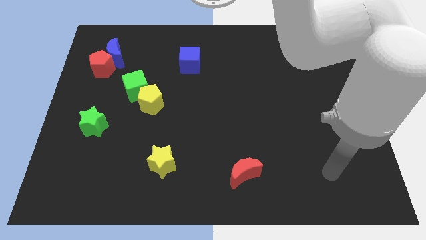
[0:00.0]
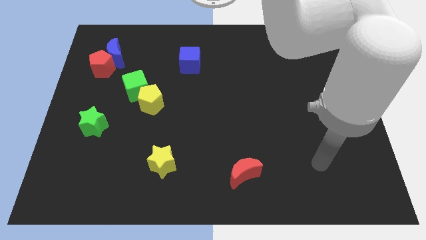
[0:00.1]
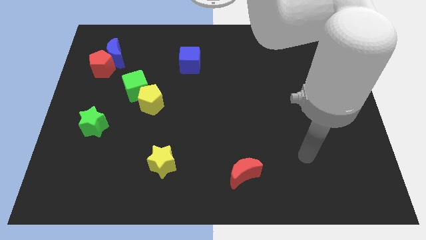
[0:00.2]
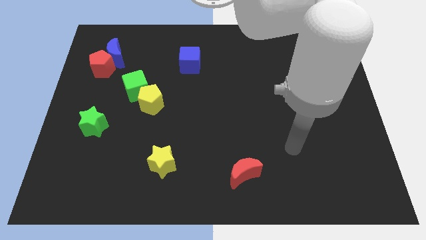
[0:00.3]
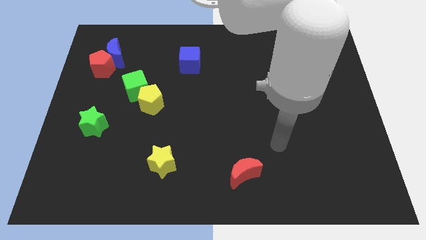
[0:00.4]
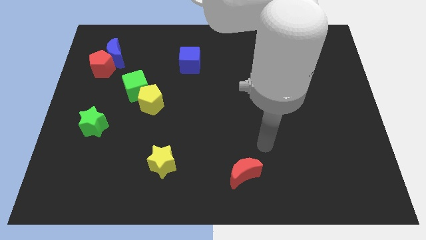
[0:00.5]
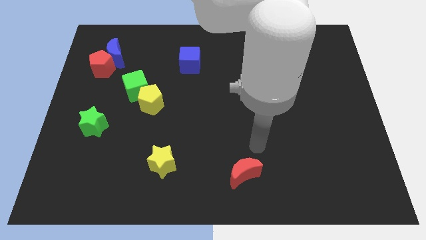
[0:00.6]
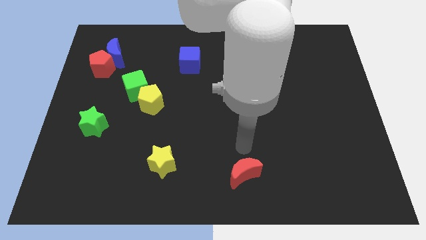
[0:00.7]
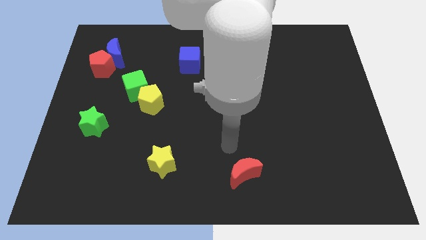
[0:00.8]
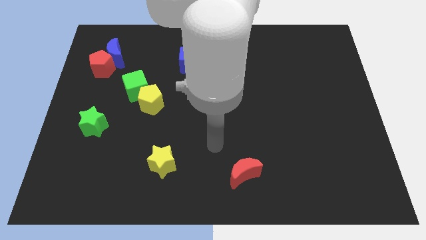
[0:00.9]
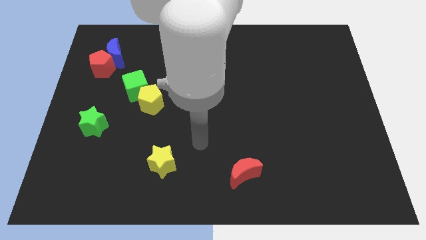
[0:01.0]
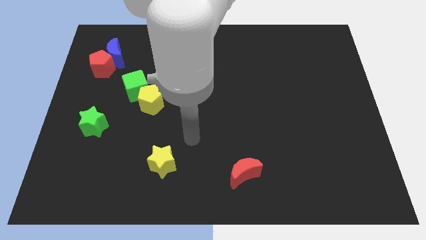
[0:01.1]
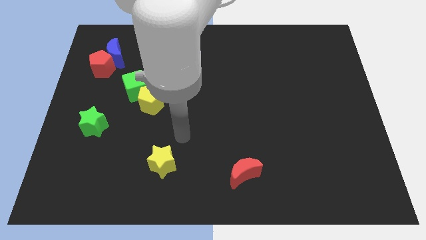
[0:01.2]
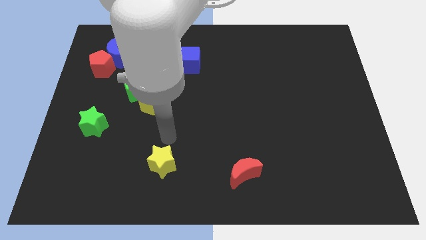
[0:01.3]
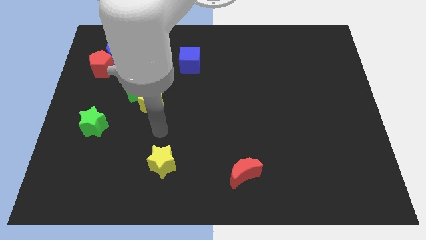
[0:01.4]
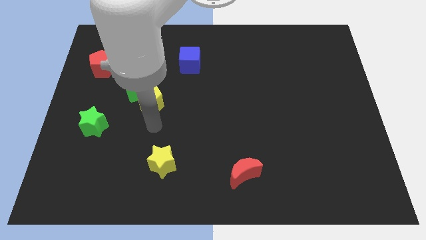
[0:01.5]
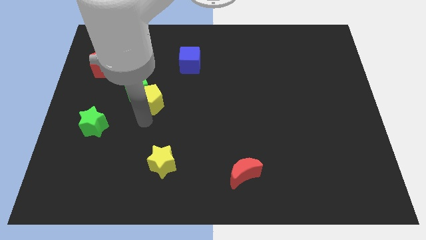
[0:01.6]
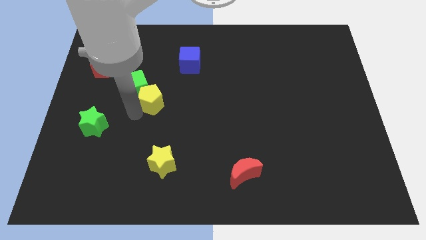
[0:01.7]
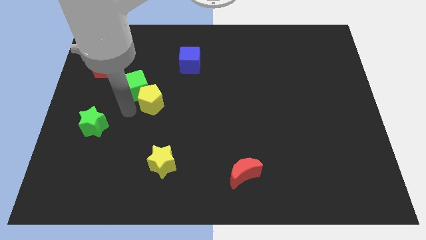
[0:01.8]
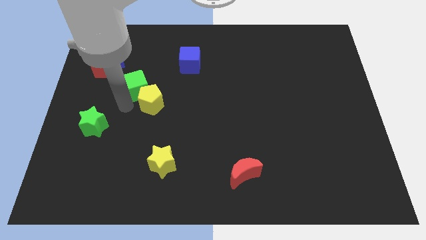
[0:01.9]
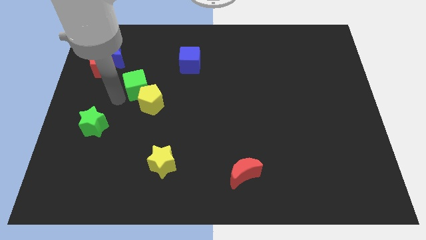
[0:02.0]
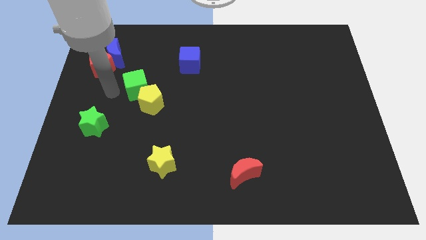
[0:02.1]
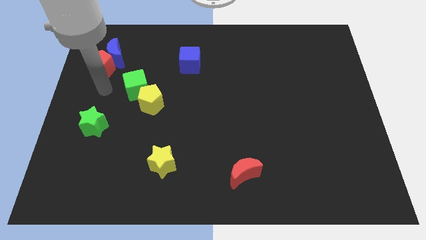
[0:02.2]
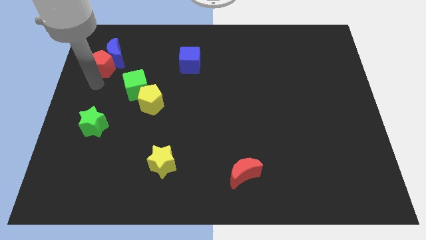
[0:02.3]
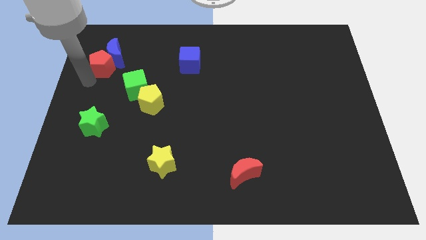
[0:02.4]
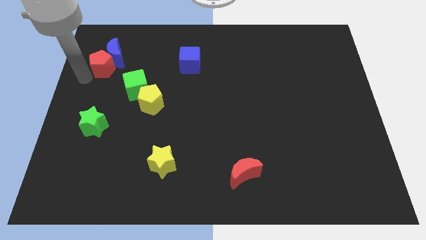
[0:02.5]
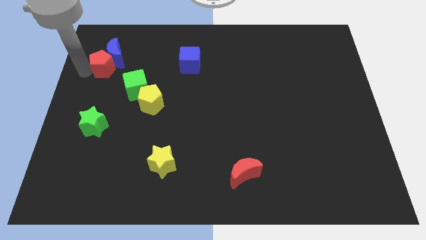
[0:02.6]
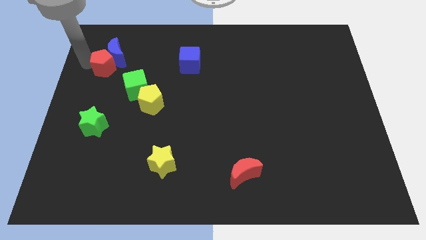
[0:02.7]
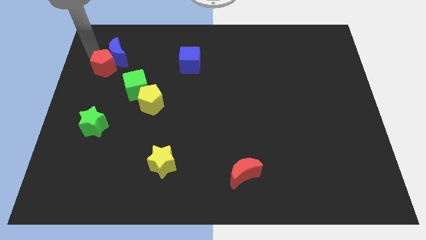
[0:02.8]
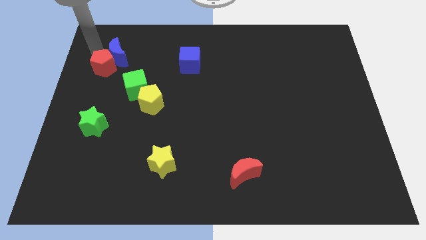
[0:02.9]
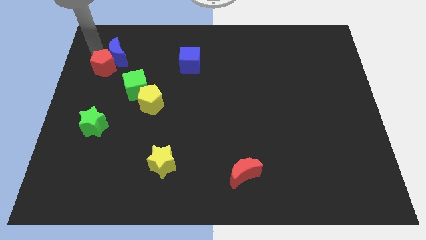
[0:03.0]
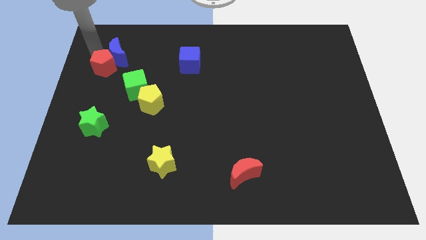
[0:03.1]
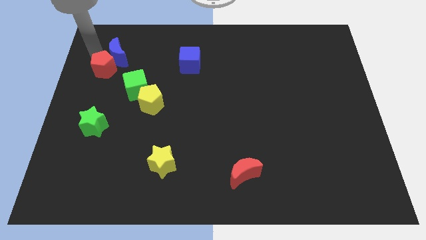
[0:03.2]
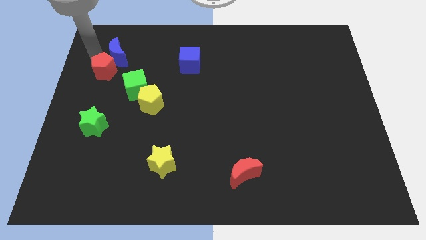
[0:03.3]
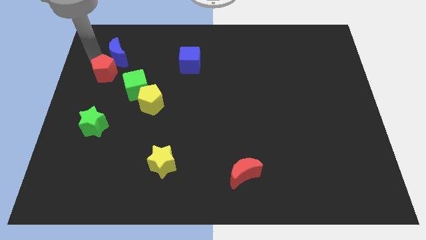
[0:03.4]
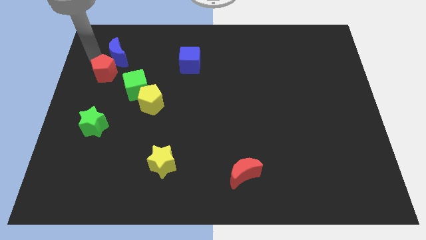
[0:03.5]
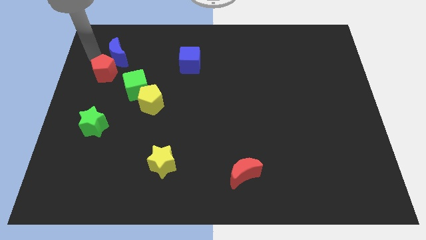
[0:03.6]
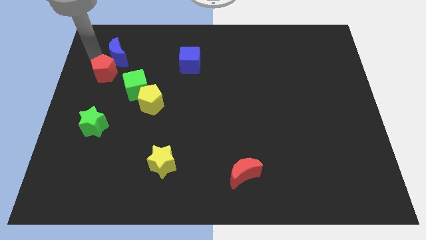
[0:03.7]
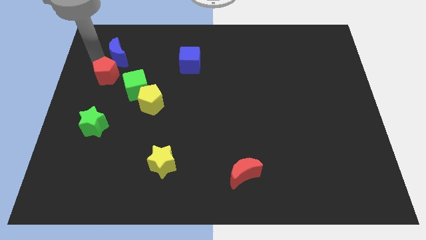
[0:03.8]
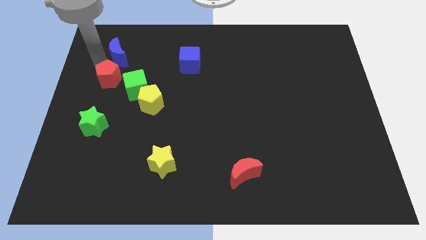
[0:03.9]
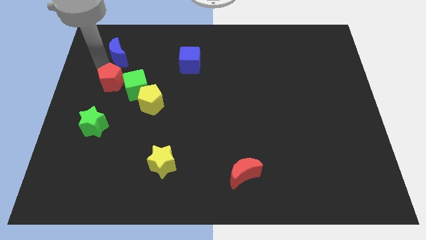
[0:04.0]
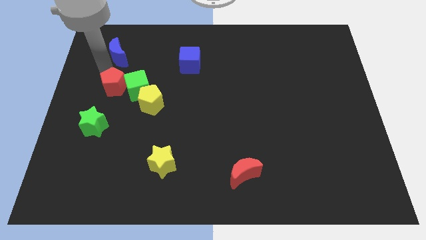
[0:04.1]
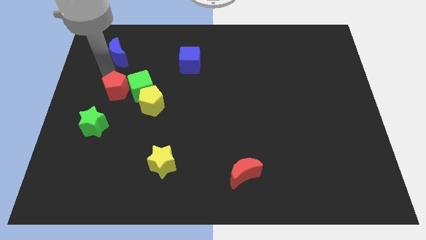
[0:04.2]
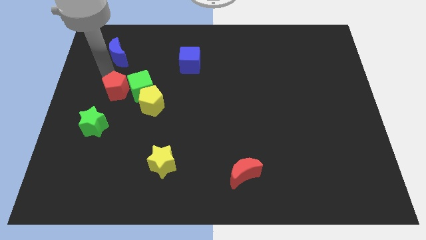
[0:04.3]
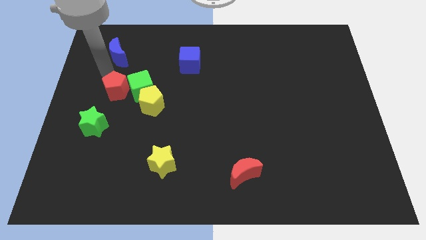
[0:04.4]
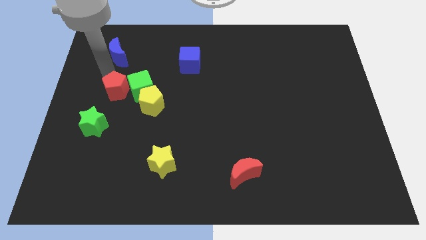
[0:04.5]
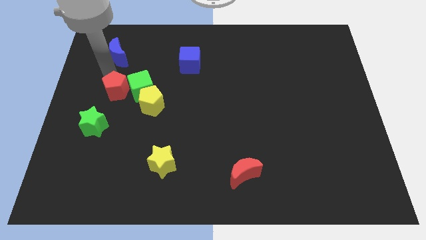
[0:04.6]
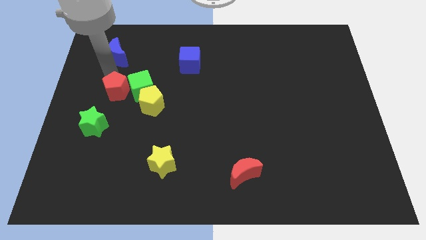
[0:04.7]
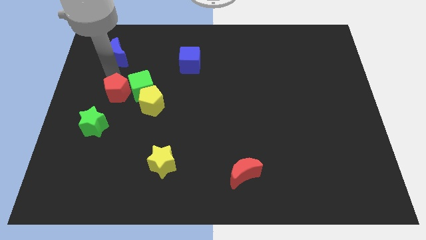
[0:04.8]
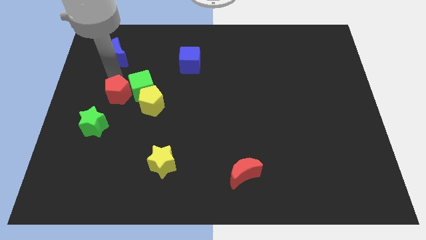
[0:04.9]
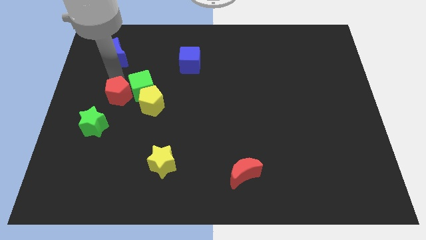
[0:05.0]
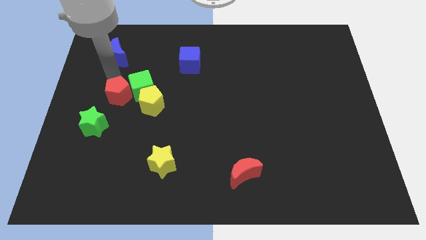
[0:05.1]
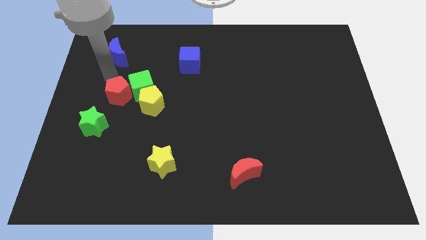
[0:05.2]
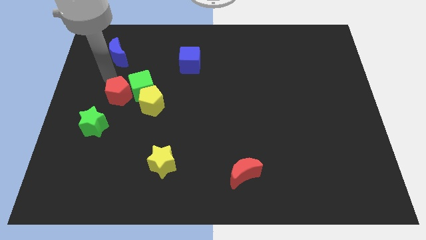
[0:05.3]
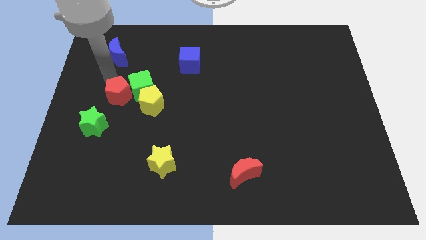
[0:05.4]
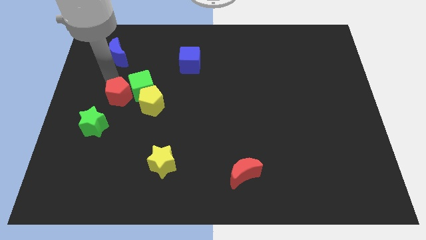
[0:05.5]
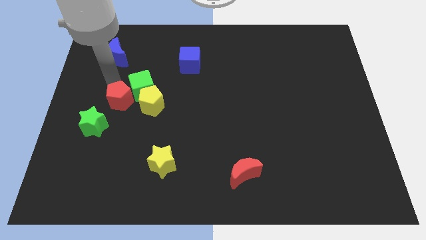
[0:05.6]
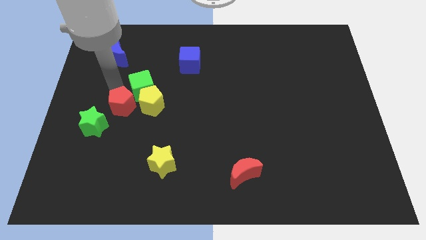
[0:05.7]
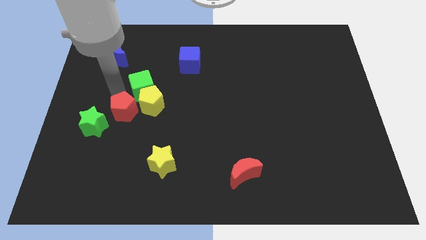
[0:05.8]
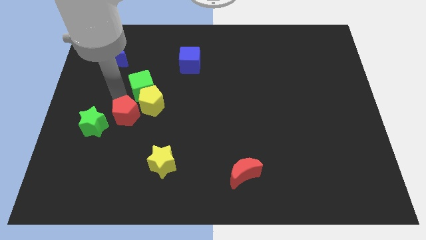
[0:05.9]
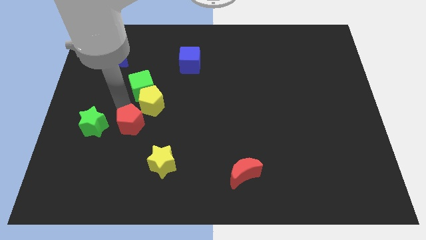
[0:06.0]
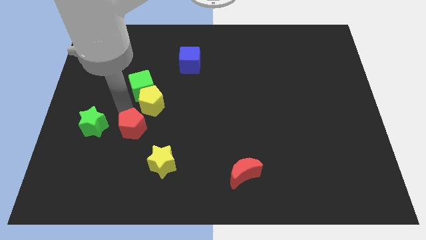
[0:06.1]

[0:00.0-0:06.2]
put the red pentagon to the top left side of the yellow star

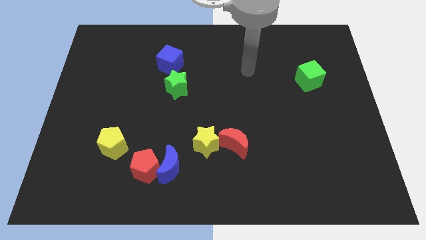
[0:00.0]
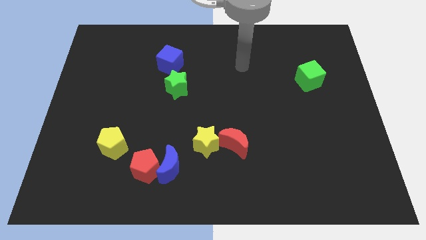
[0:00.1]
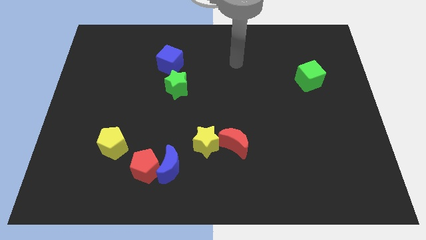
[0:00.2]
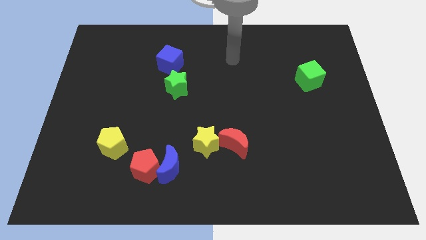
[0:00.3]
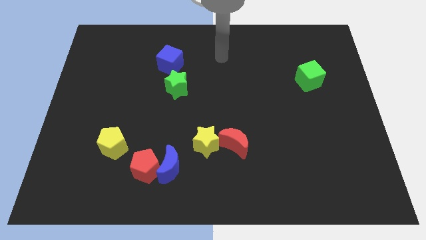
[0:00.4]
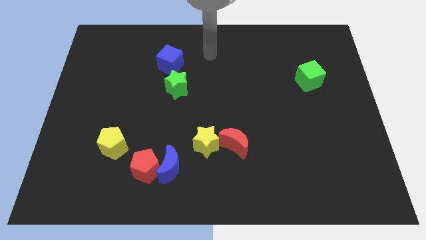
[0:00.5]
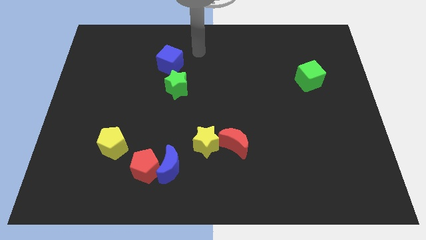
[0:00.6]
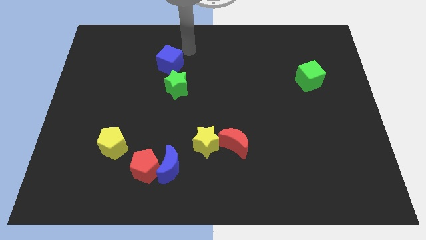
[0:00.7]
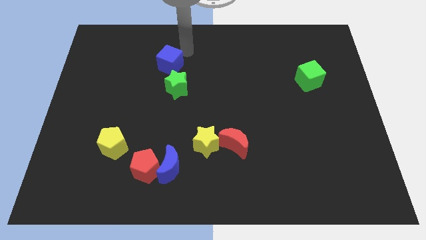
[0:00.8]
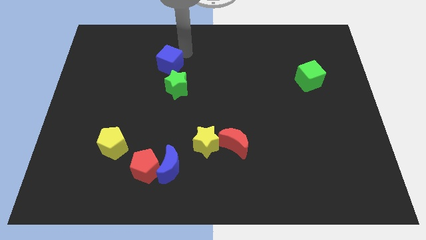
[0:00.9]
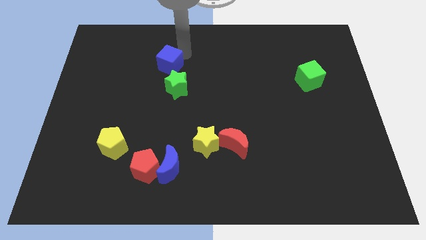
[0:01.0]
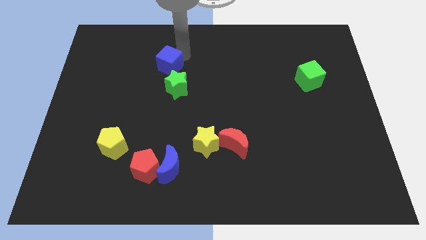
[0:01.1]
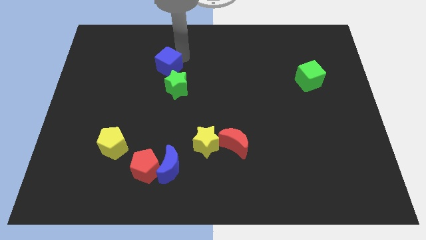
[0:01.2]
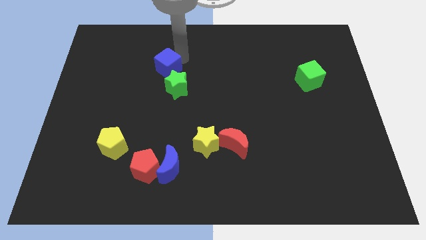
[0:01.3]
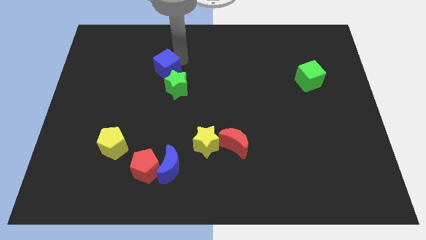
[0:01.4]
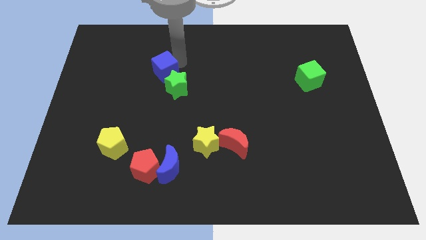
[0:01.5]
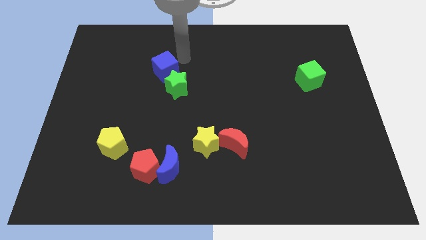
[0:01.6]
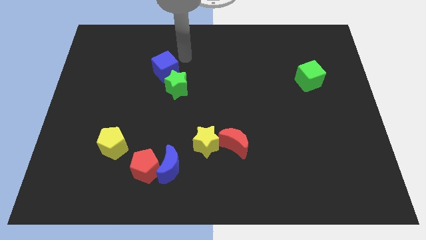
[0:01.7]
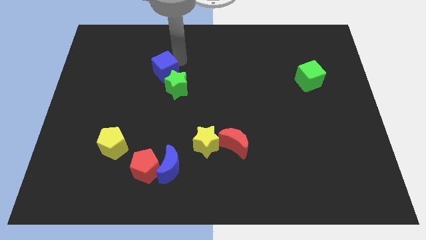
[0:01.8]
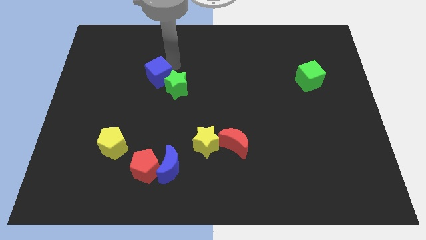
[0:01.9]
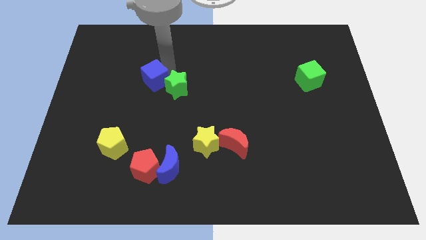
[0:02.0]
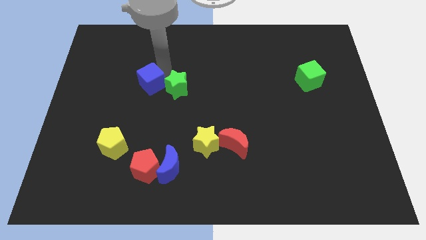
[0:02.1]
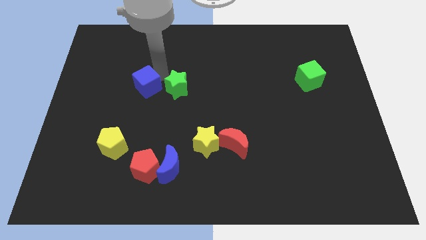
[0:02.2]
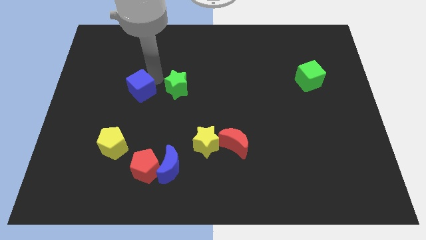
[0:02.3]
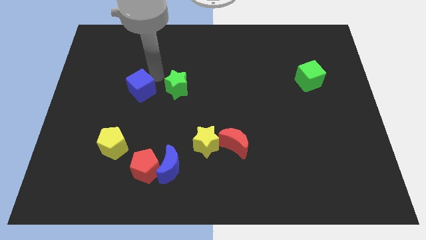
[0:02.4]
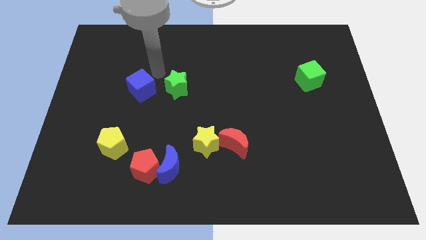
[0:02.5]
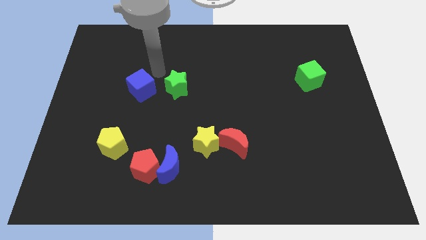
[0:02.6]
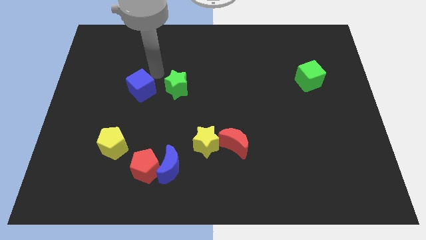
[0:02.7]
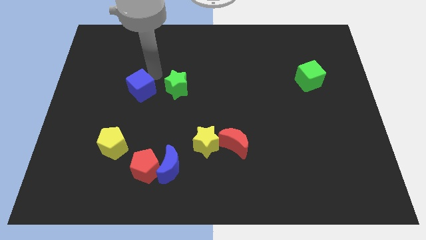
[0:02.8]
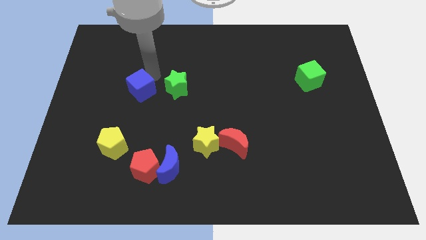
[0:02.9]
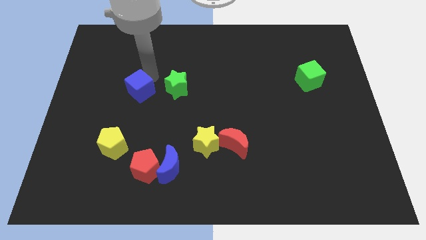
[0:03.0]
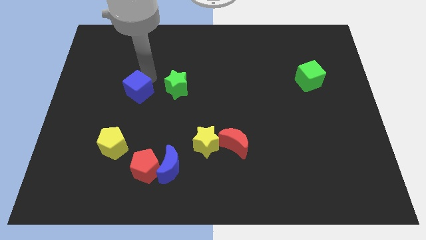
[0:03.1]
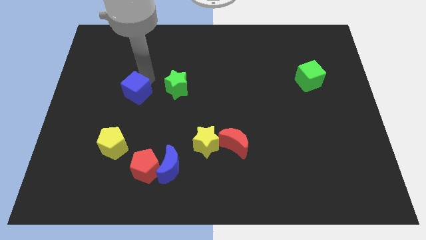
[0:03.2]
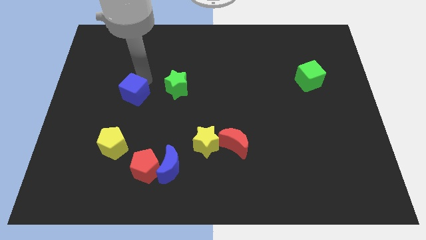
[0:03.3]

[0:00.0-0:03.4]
move the blue cube to the top of the yellow pentagon
